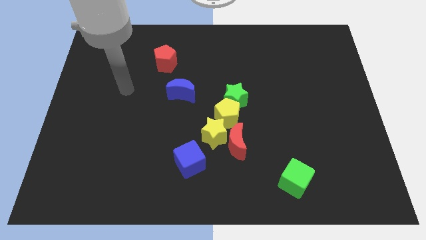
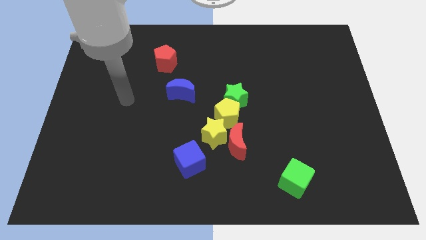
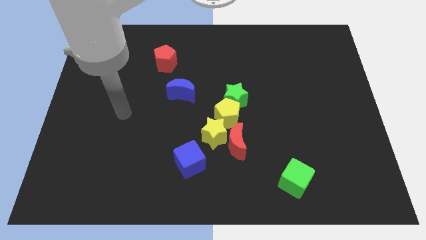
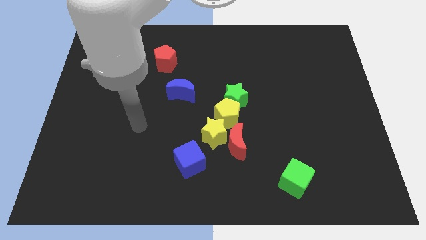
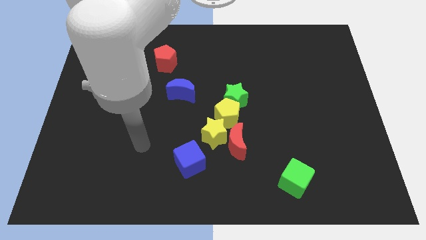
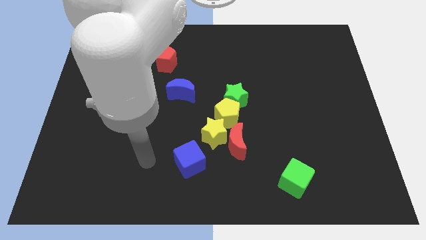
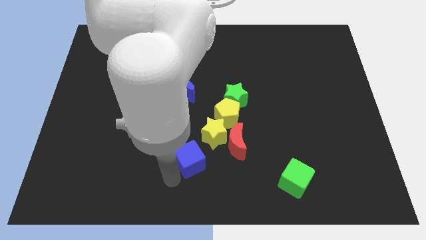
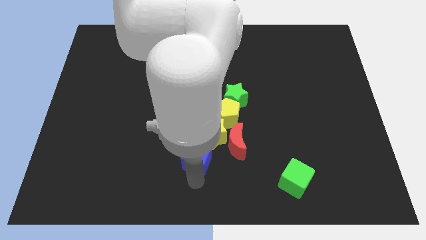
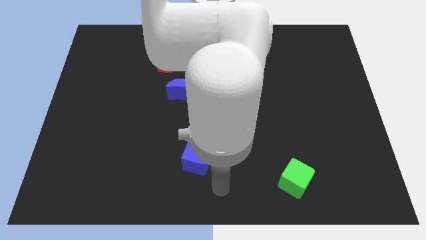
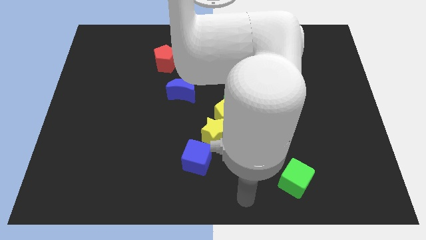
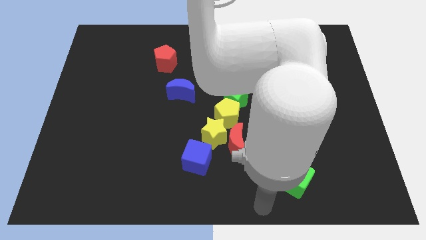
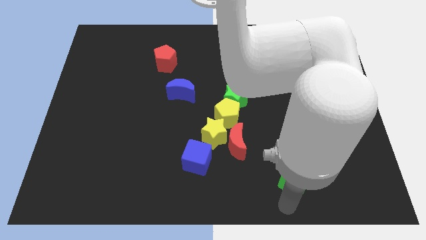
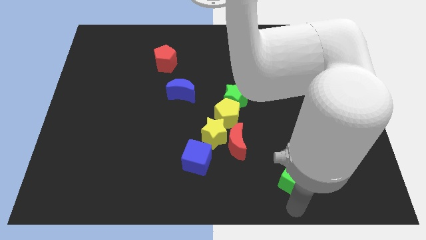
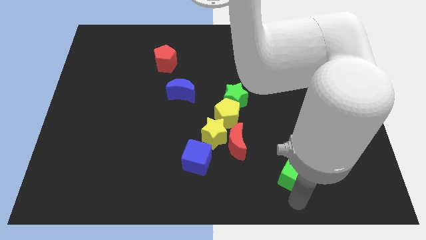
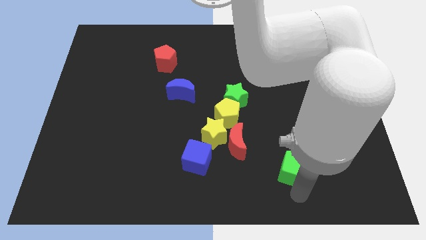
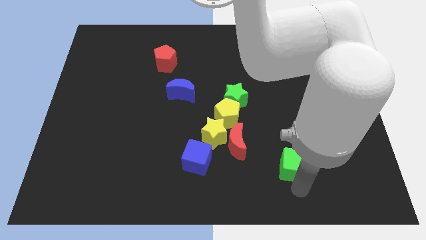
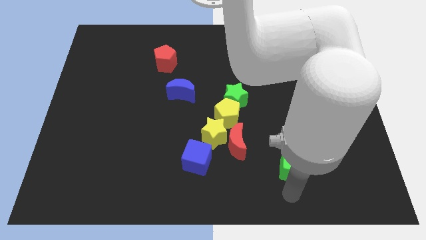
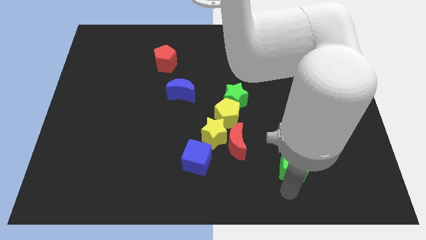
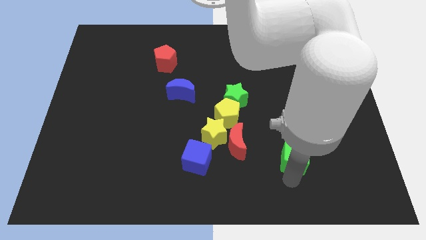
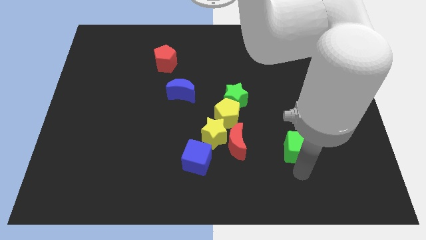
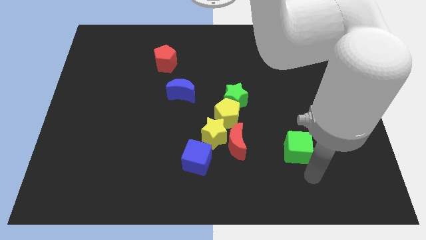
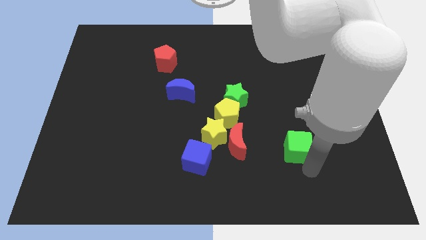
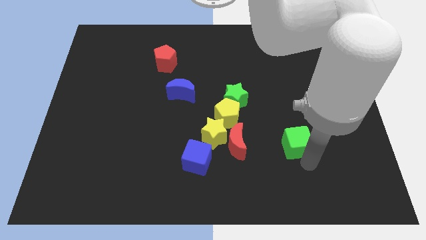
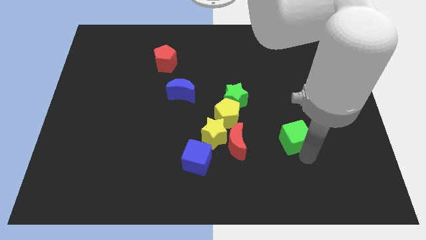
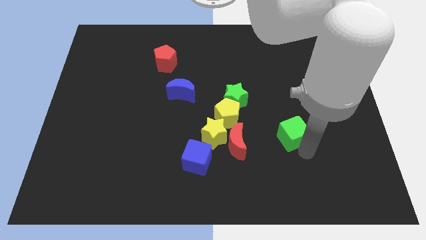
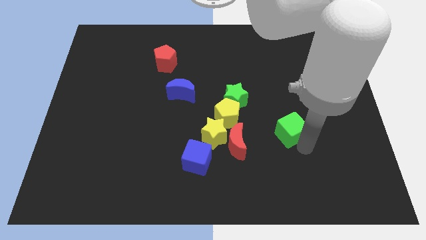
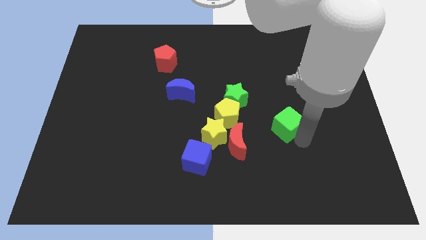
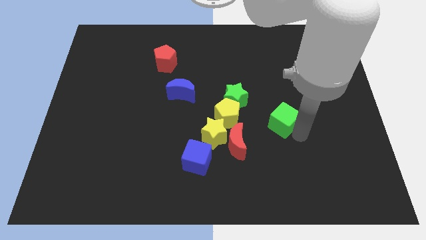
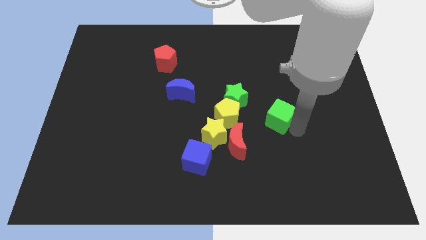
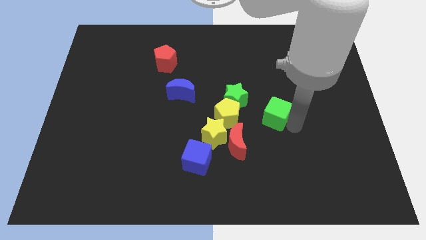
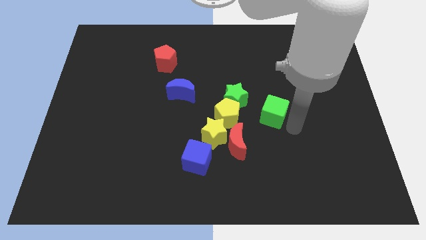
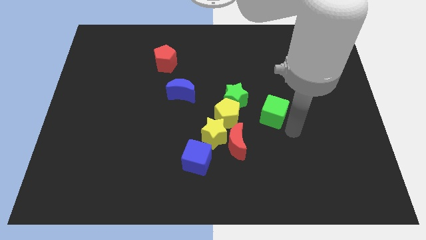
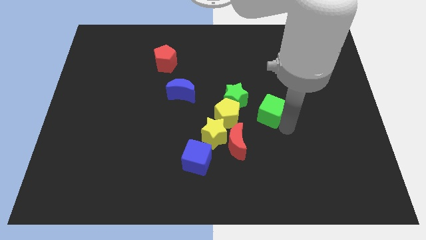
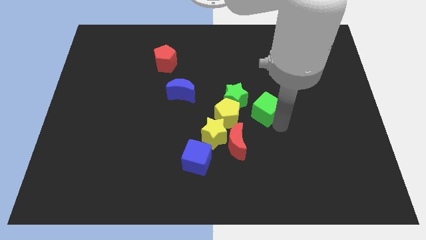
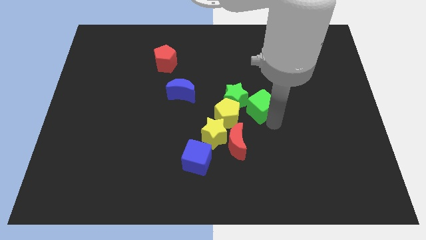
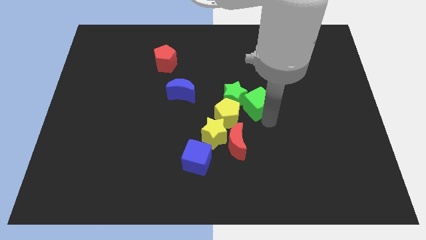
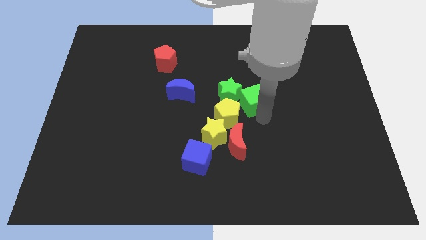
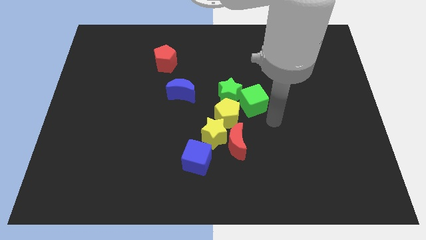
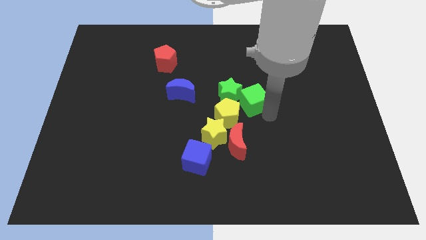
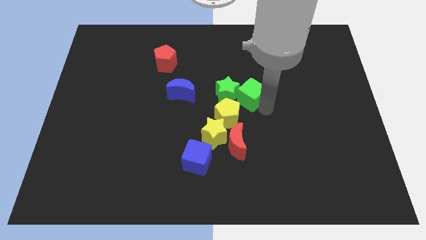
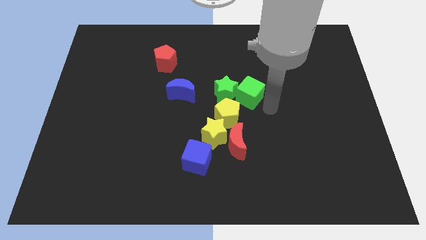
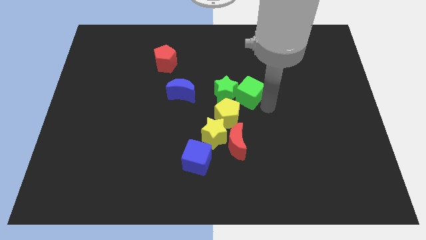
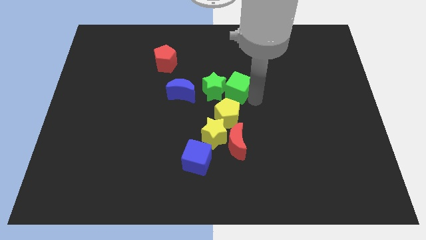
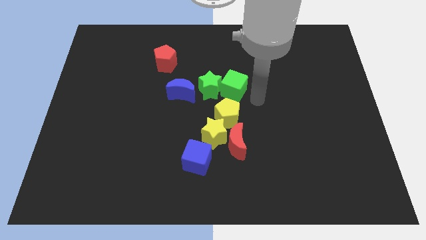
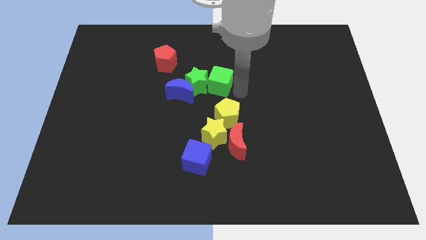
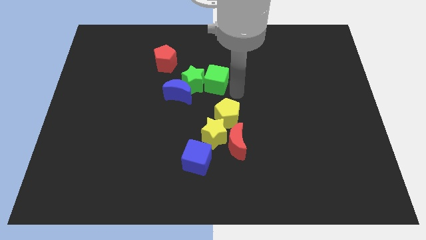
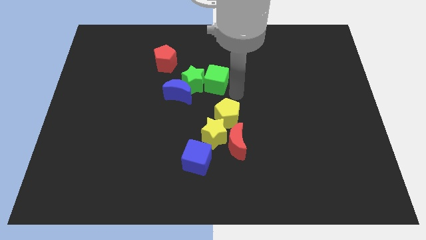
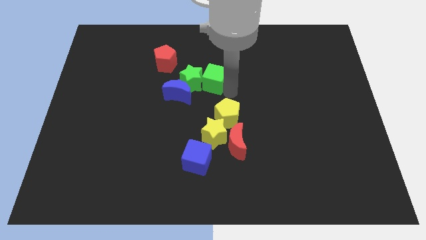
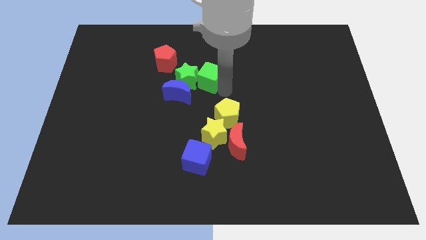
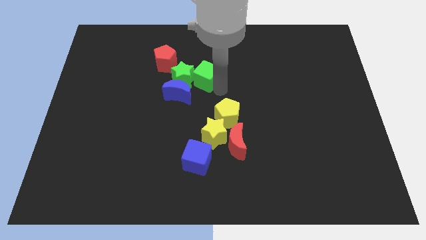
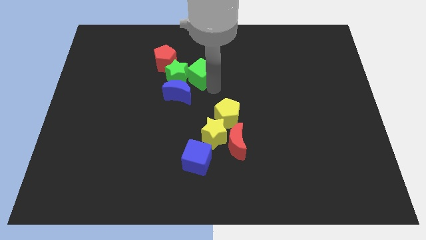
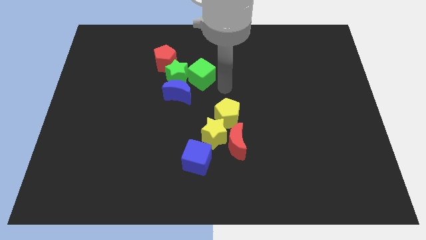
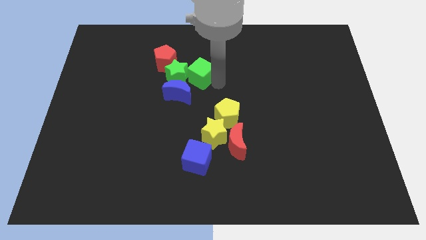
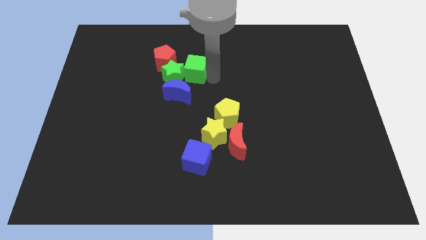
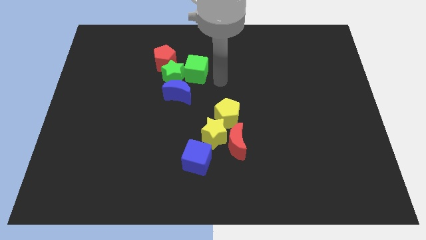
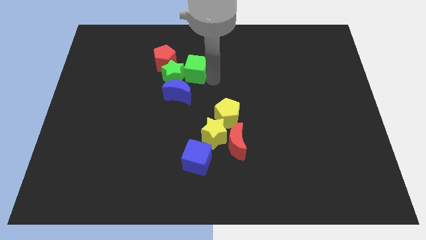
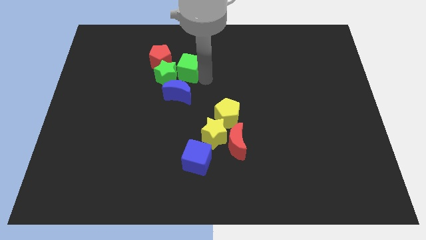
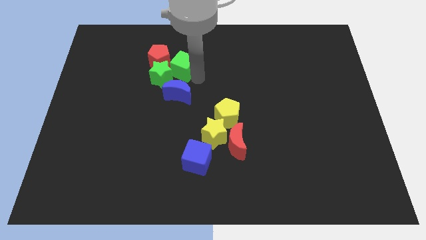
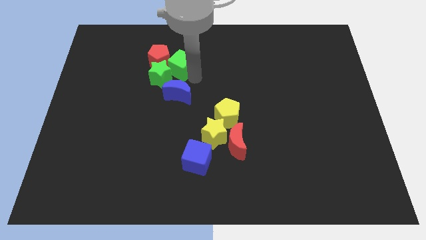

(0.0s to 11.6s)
put the green cube towards the red pentagon

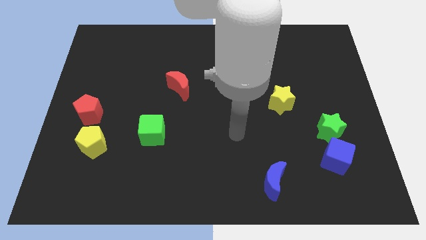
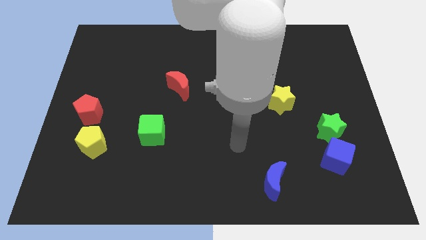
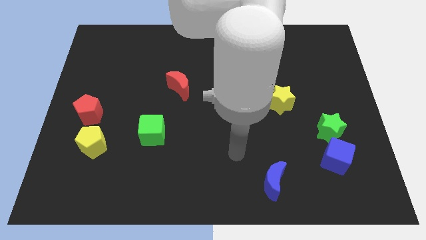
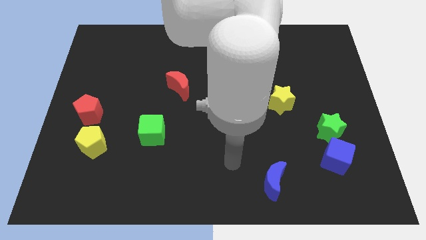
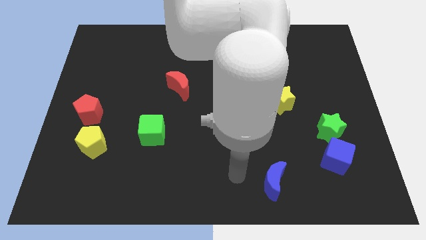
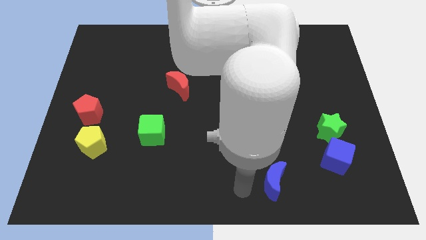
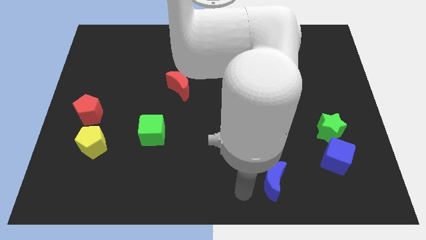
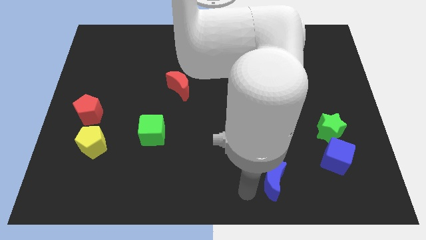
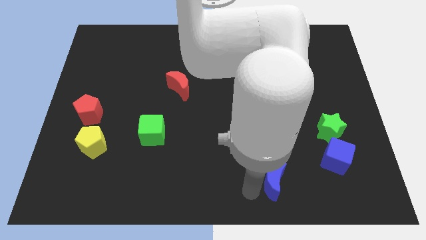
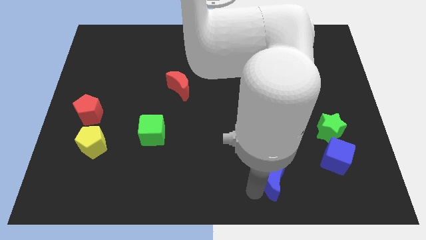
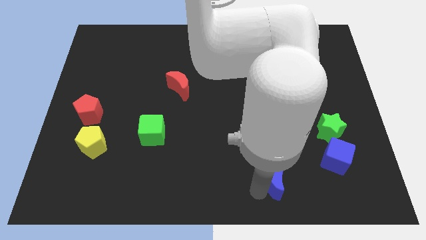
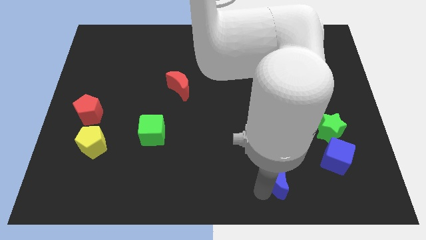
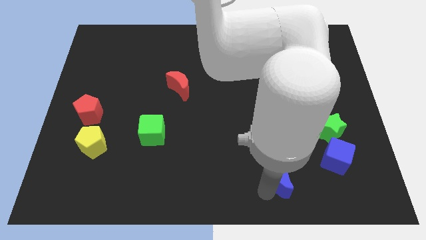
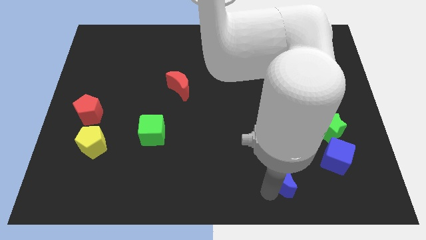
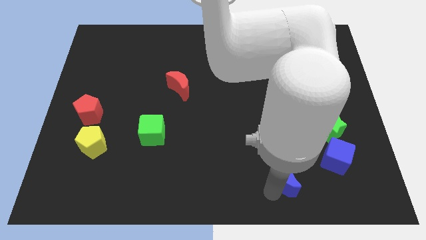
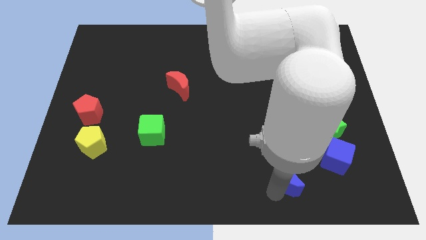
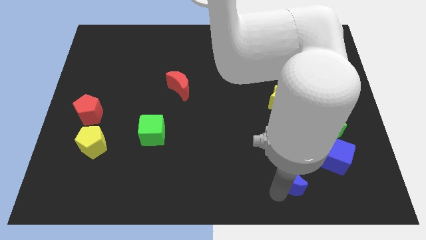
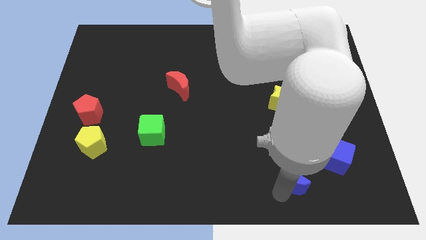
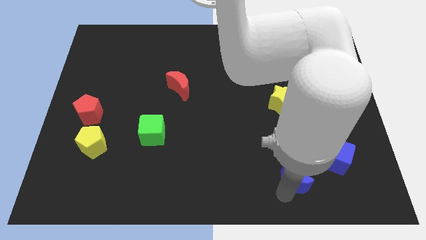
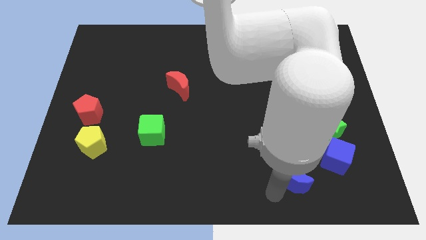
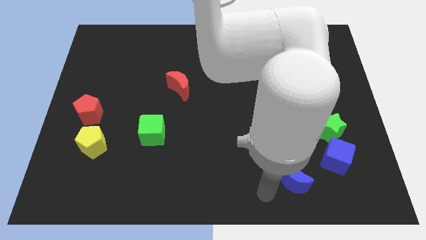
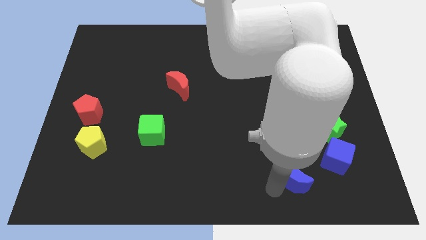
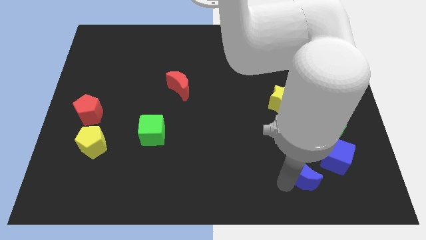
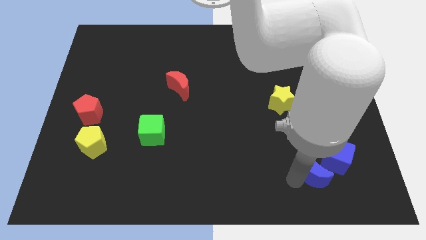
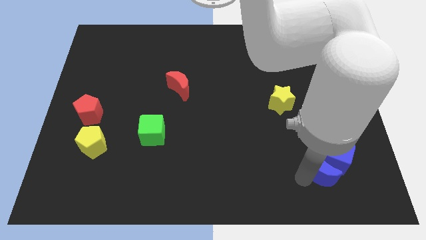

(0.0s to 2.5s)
put the blue moon next to the blue cube
